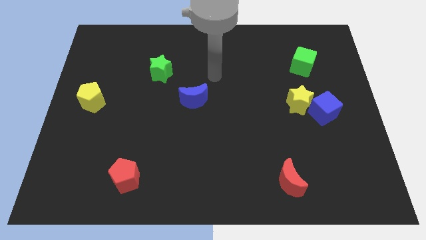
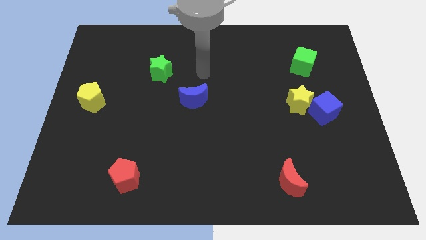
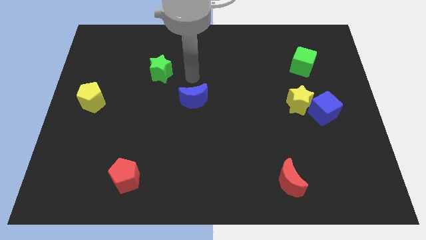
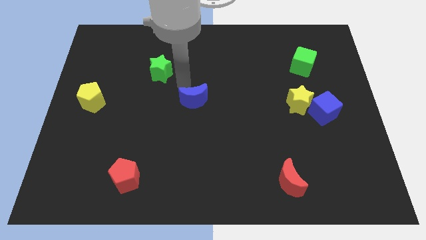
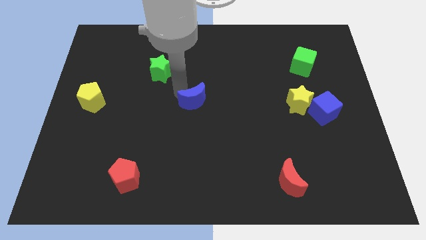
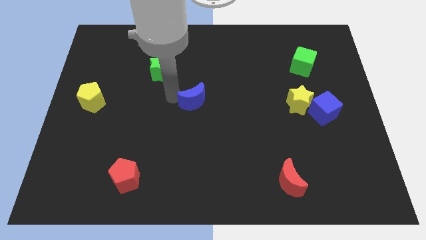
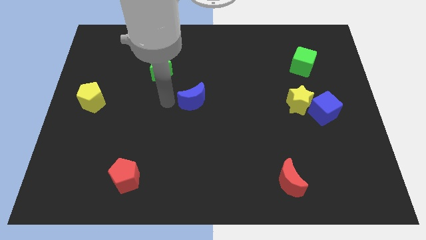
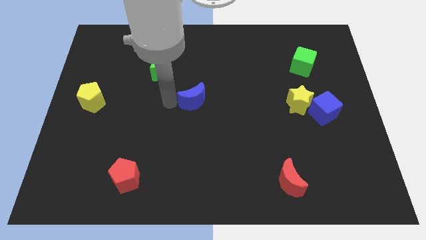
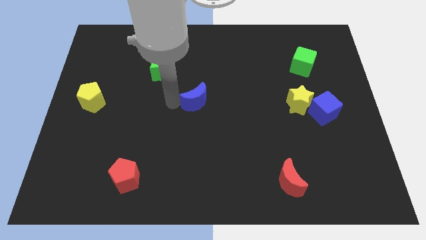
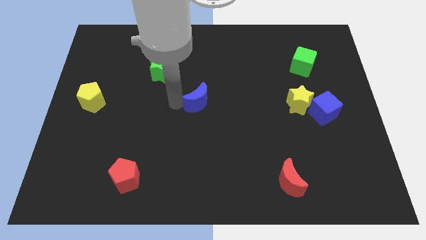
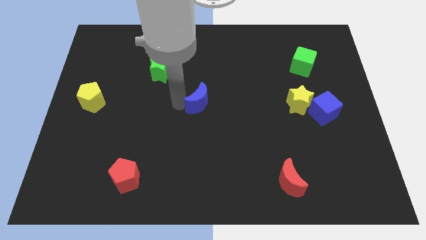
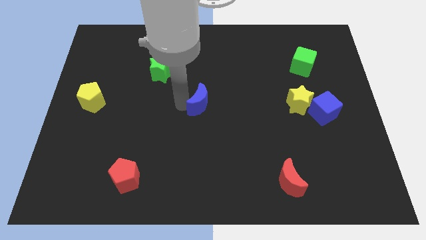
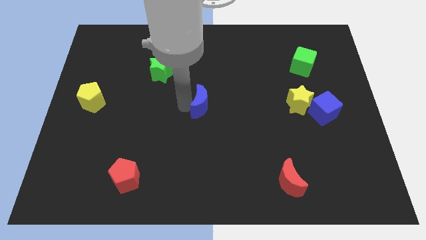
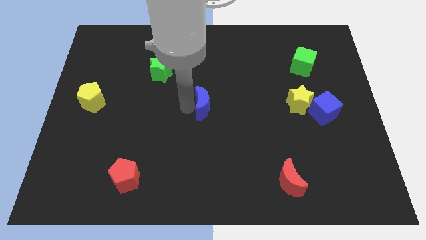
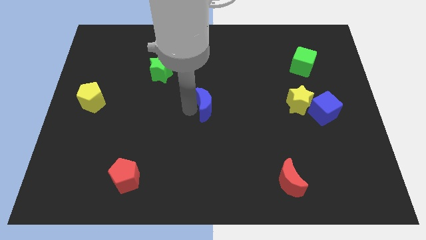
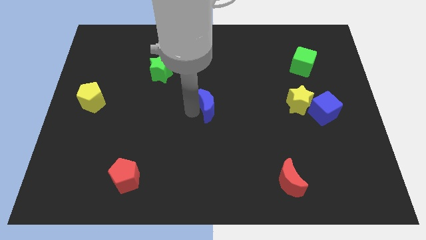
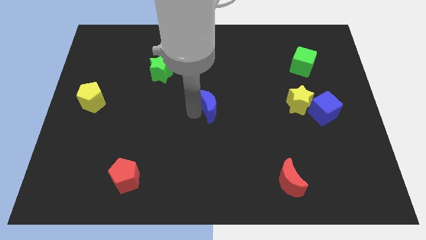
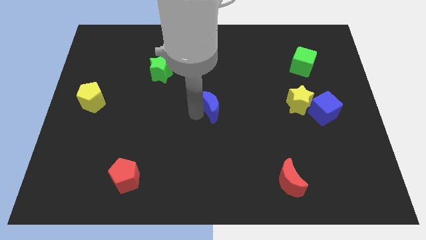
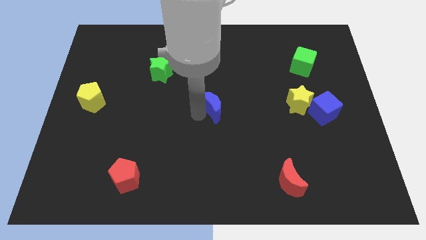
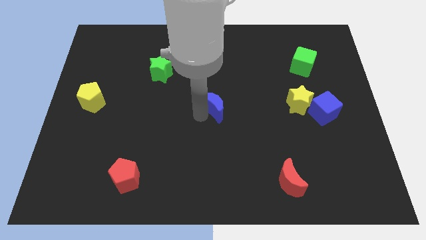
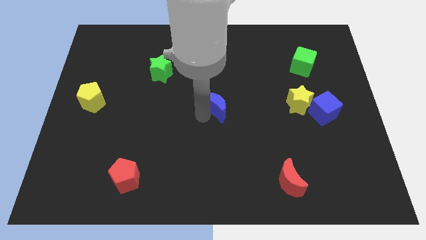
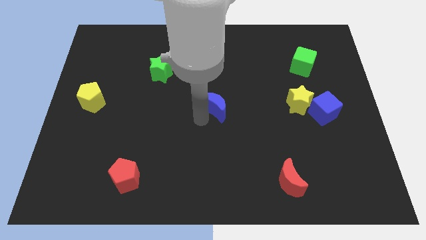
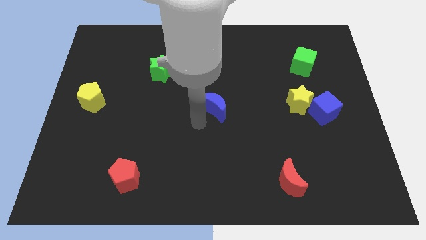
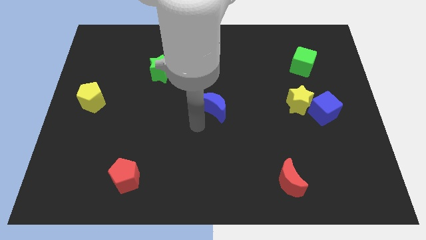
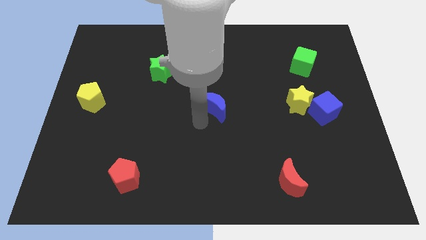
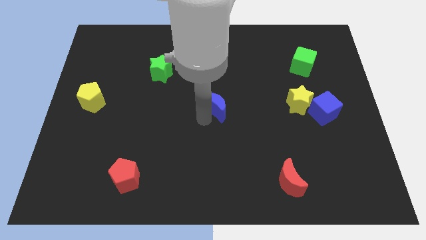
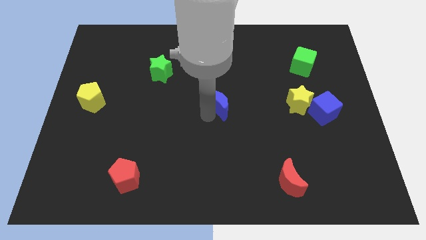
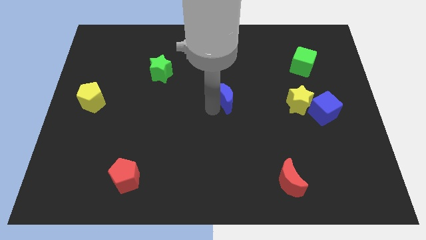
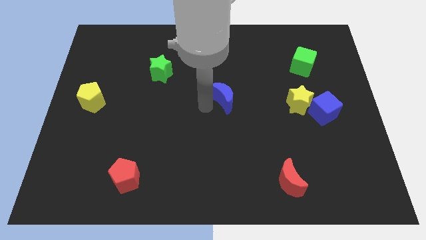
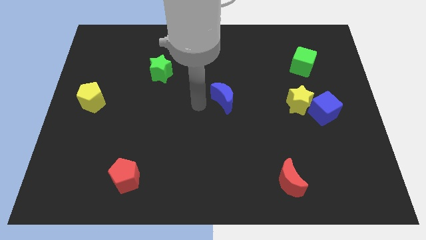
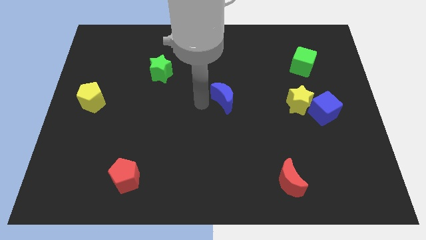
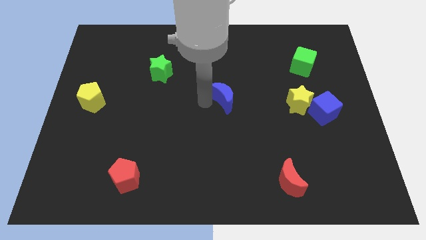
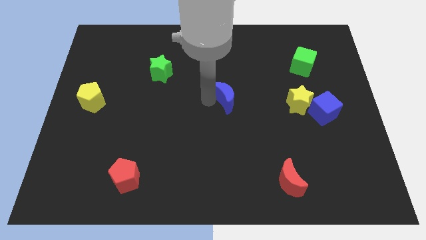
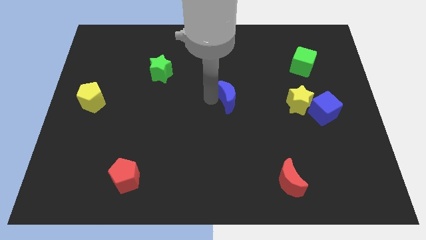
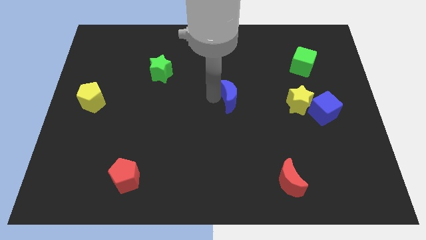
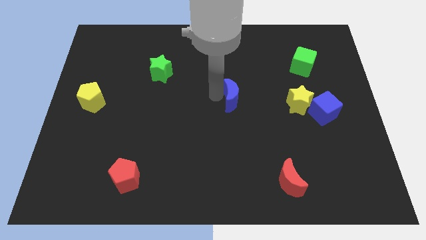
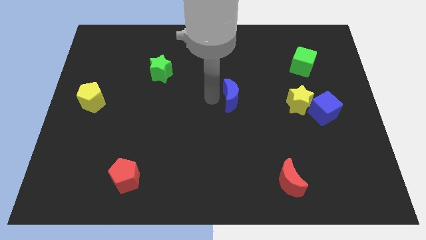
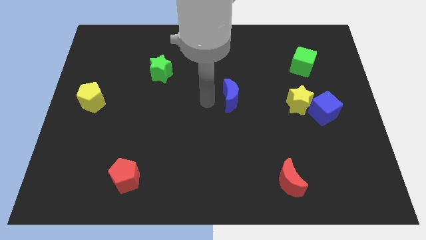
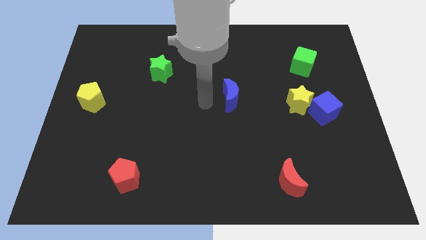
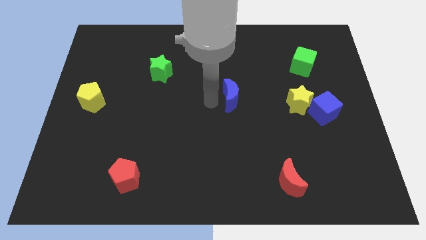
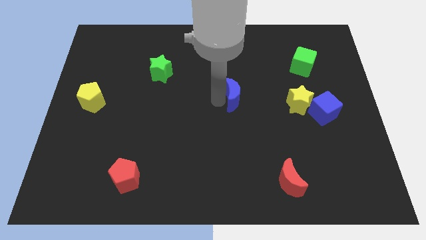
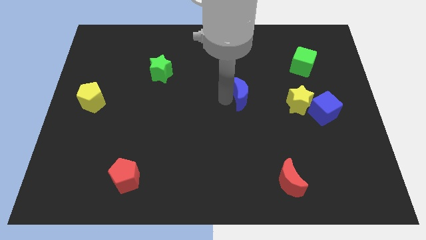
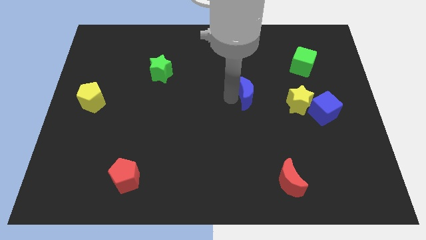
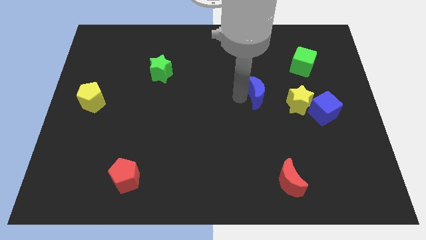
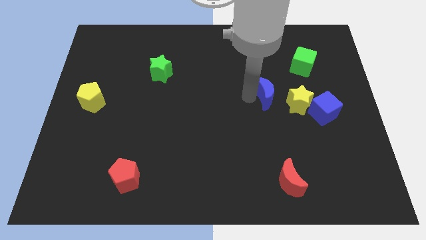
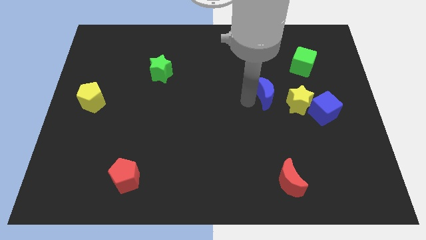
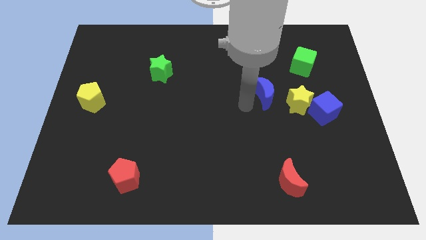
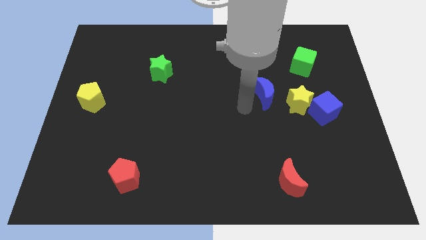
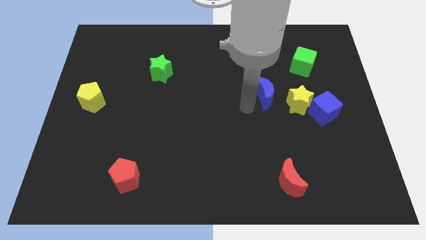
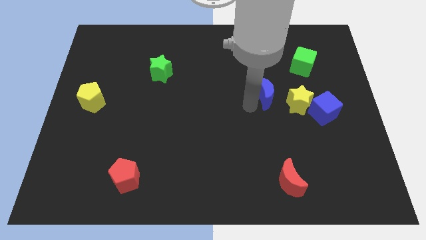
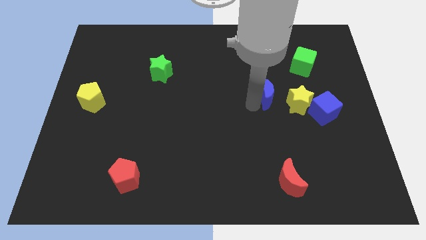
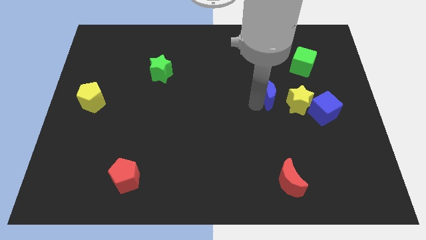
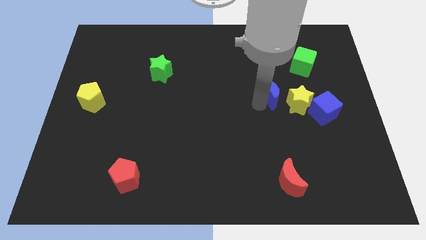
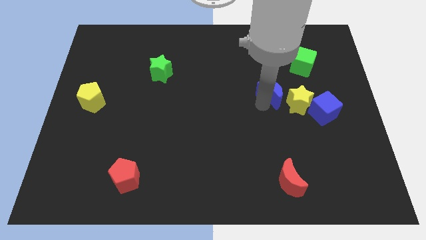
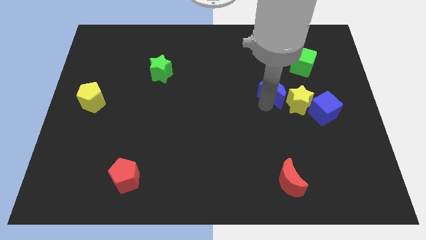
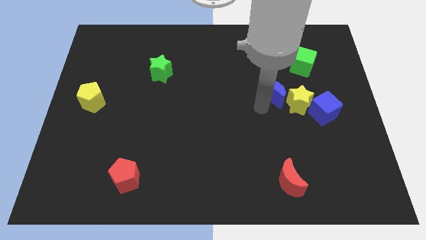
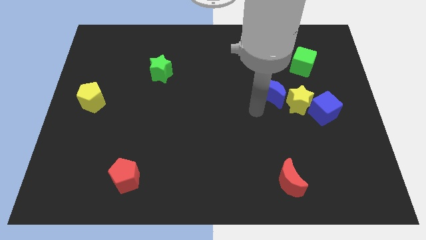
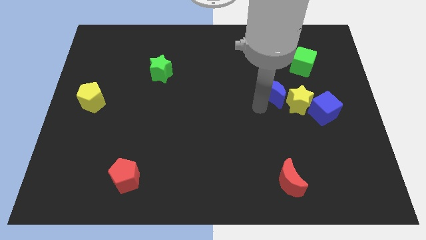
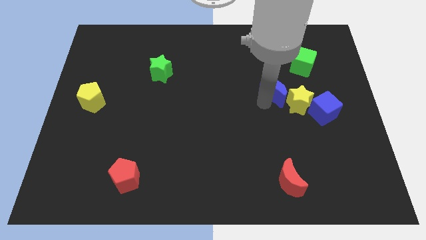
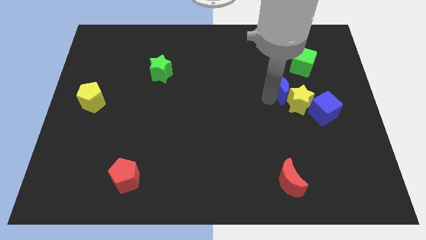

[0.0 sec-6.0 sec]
push the blue moon to the right

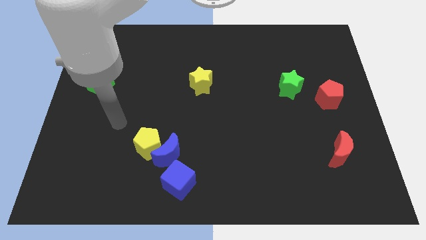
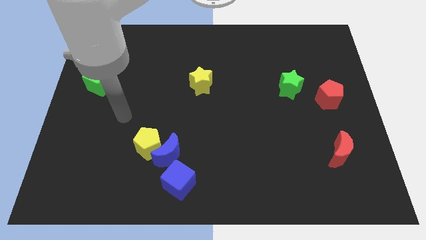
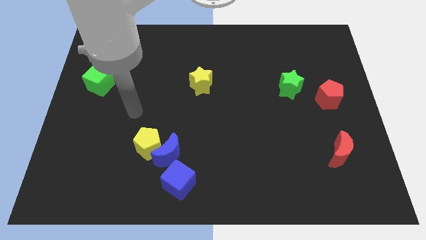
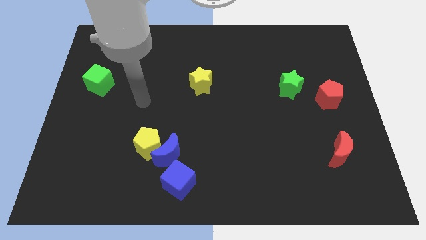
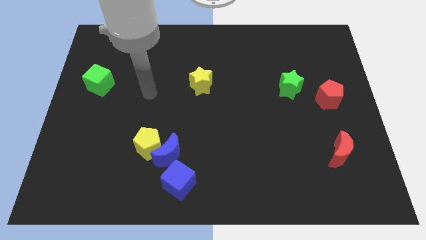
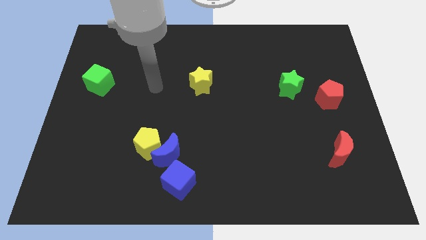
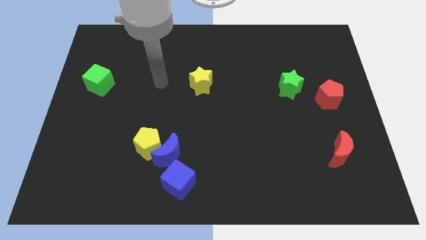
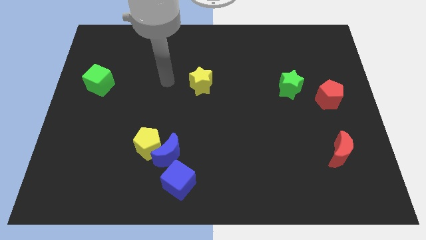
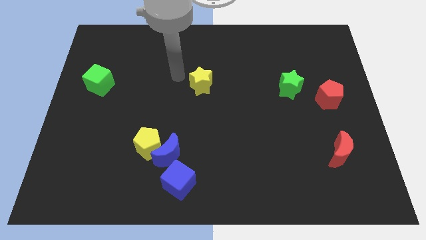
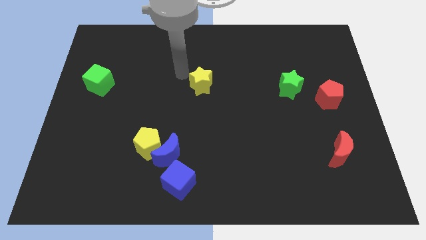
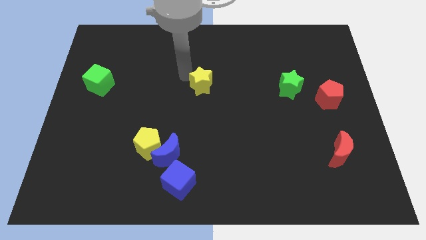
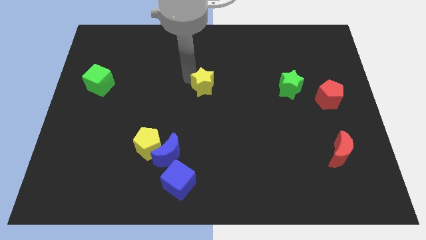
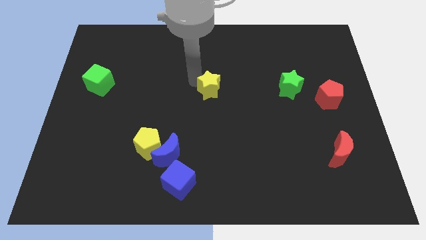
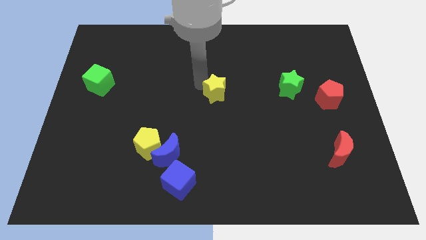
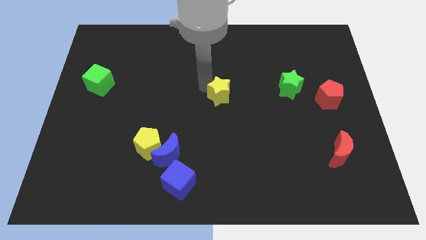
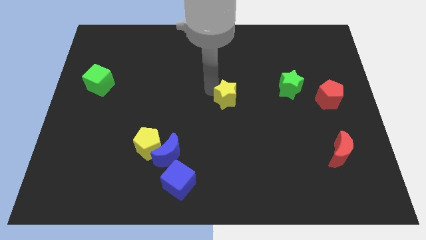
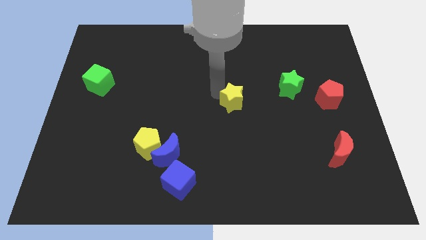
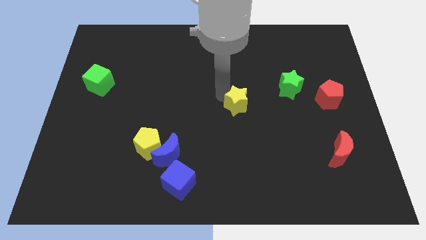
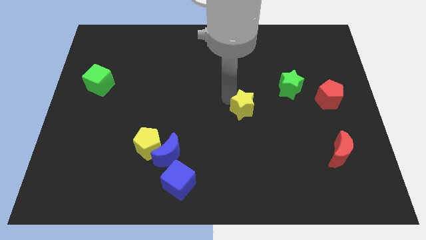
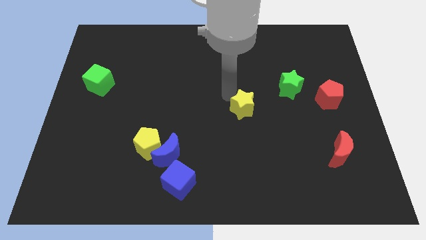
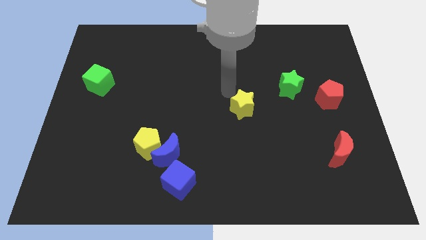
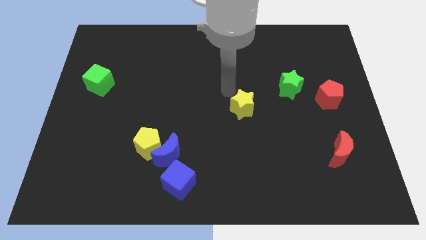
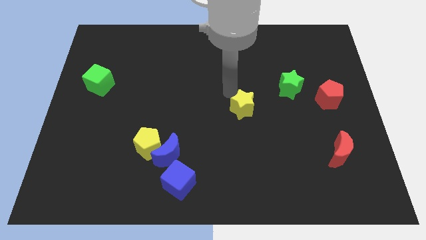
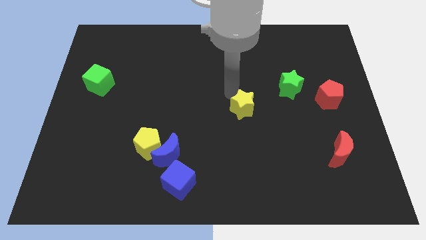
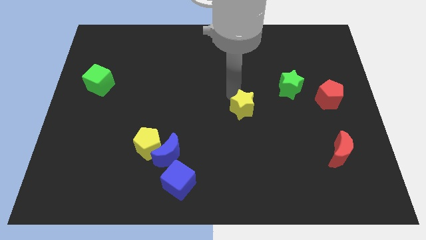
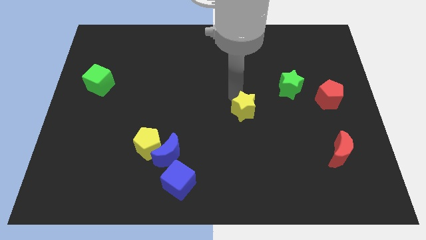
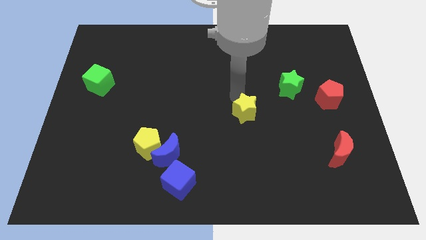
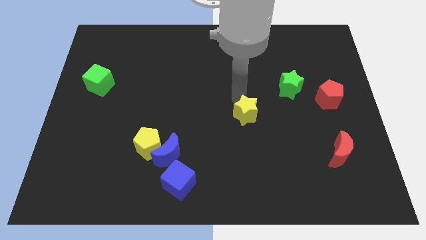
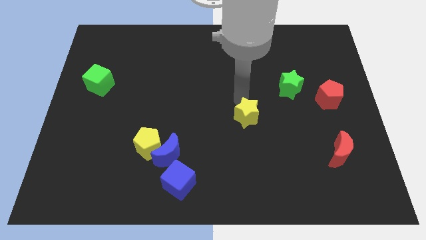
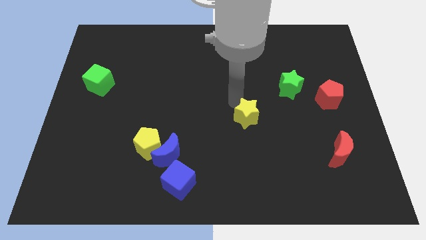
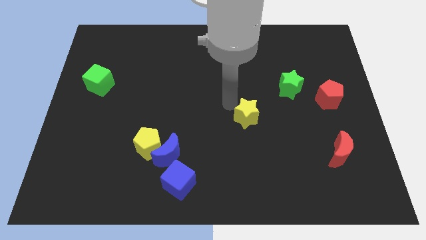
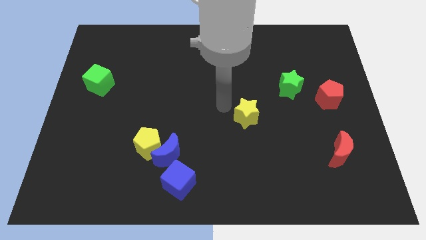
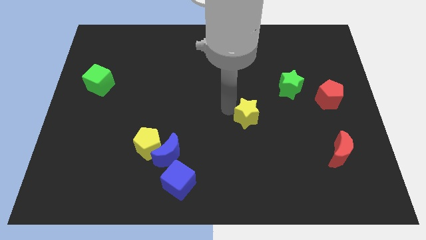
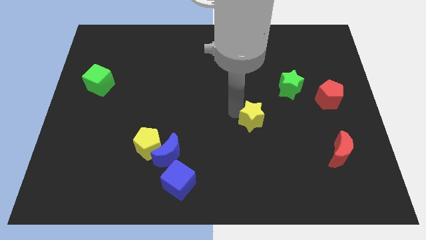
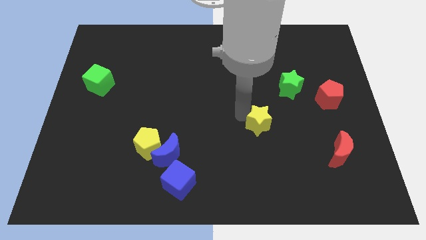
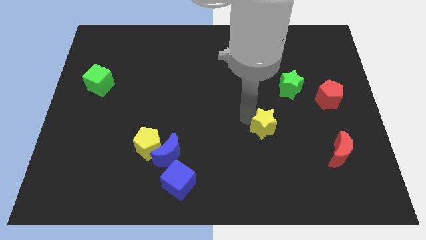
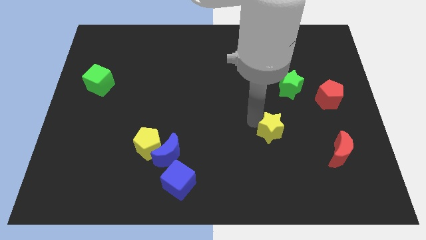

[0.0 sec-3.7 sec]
slide the yellow star down and to the right diagonally
